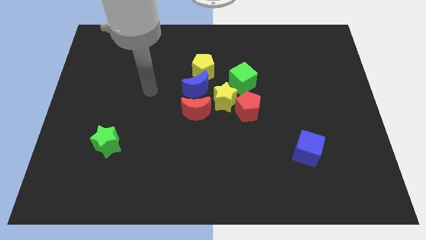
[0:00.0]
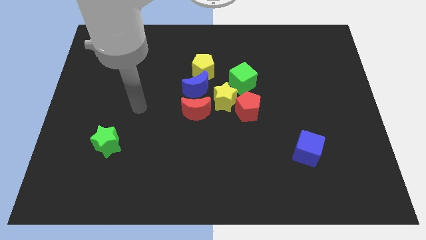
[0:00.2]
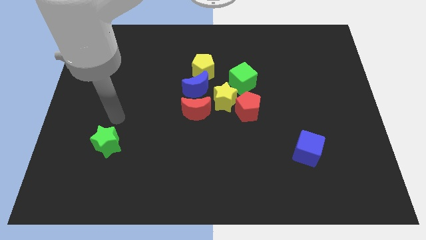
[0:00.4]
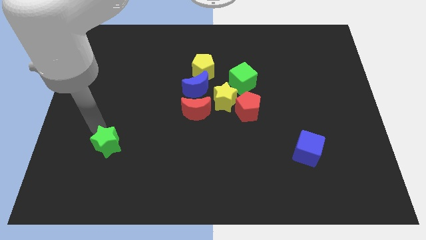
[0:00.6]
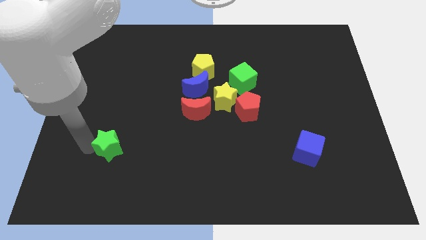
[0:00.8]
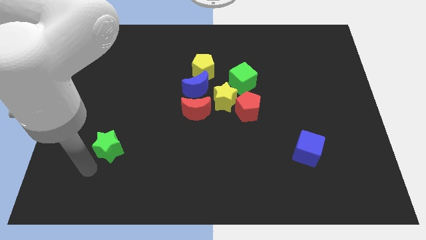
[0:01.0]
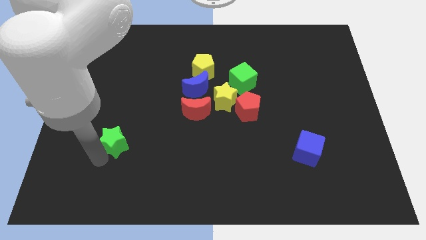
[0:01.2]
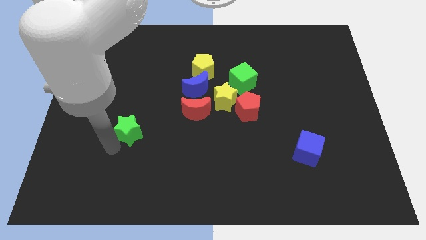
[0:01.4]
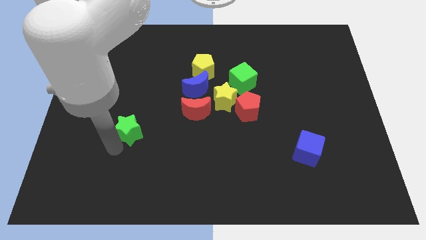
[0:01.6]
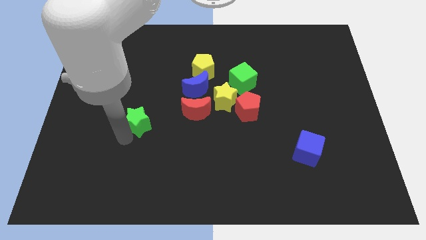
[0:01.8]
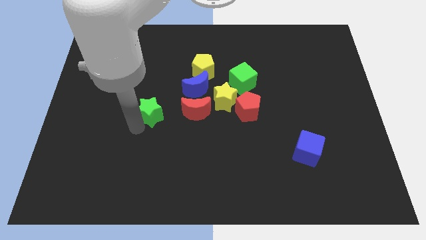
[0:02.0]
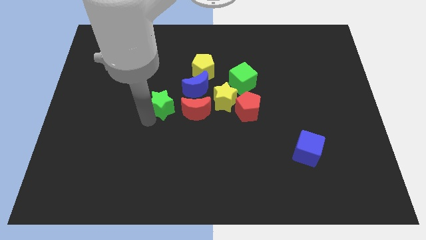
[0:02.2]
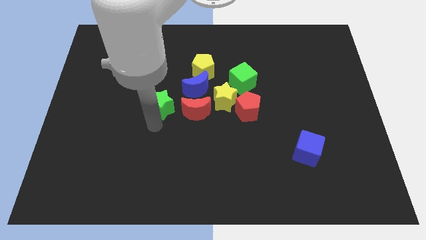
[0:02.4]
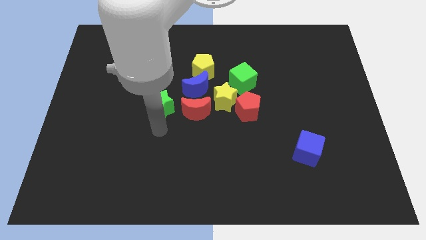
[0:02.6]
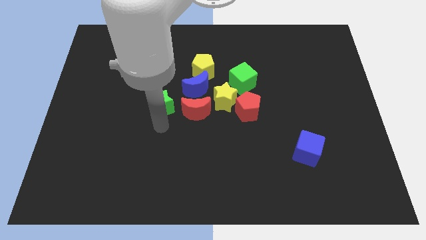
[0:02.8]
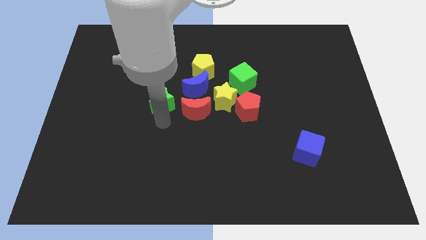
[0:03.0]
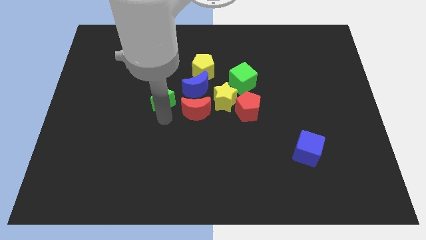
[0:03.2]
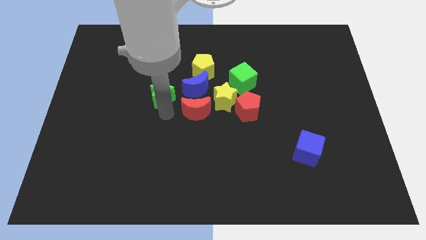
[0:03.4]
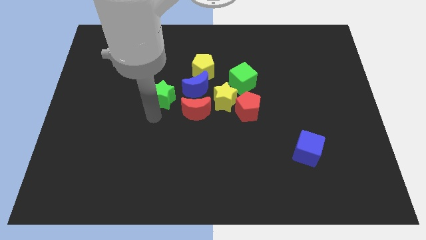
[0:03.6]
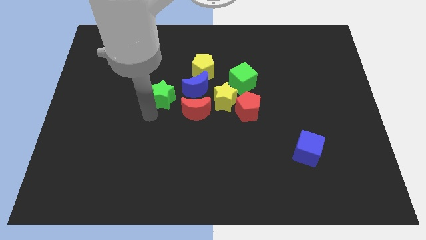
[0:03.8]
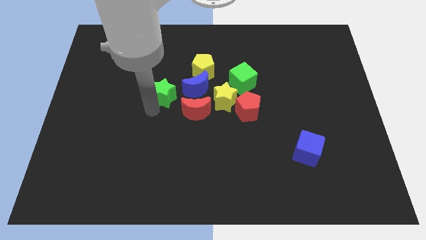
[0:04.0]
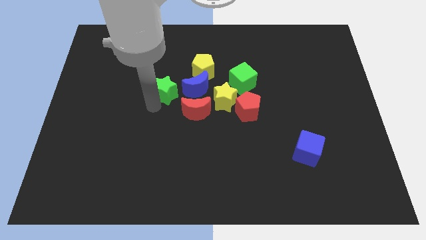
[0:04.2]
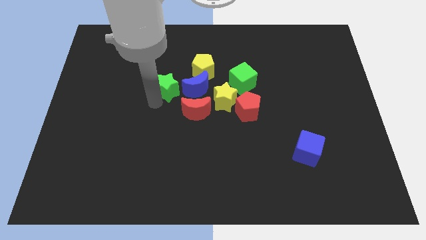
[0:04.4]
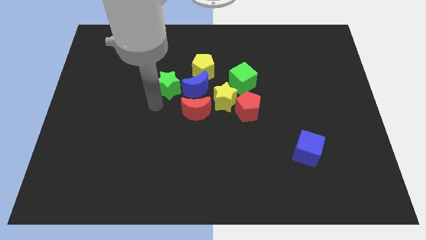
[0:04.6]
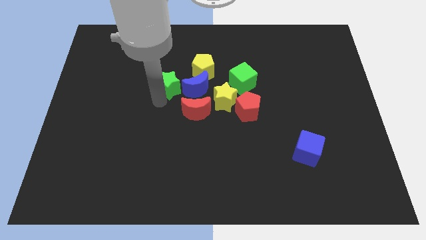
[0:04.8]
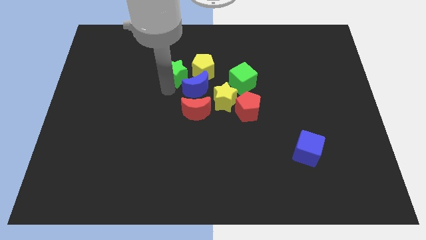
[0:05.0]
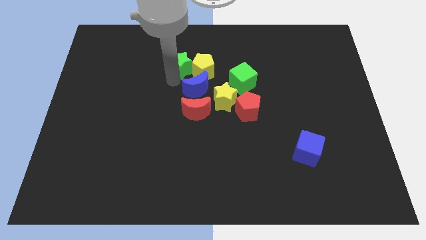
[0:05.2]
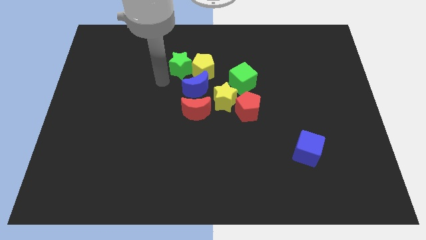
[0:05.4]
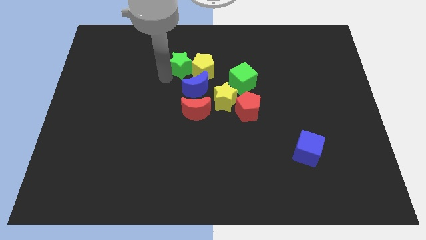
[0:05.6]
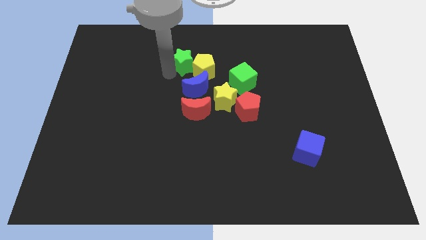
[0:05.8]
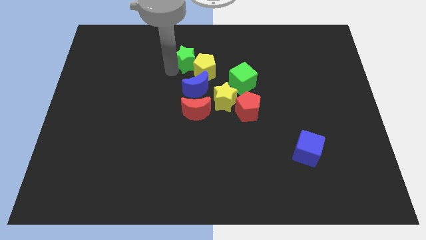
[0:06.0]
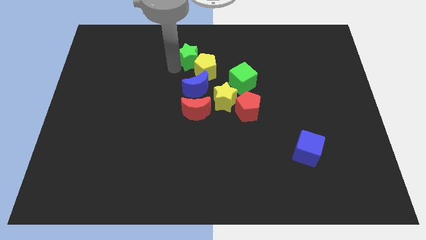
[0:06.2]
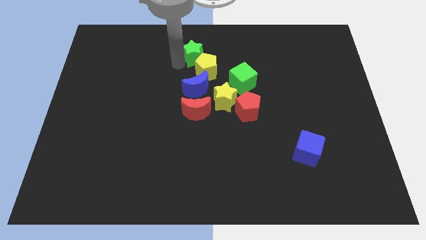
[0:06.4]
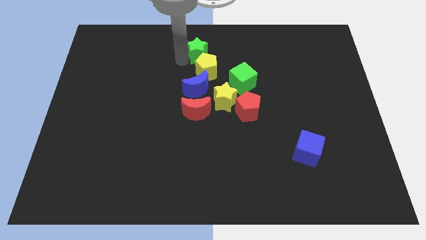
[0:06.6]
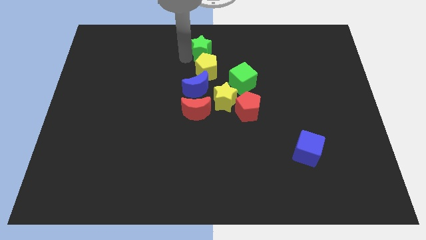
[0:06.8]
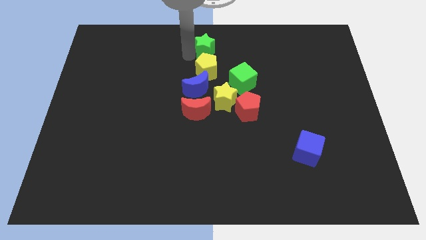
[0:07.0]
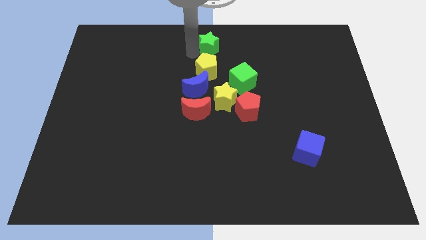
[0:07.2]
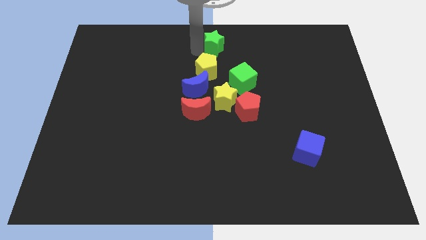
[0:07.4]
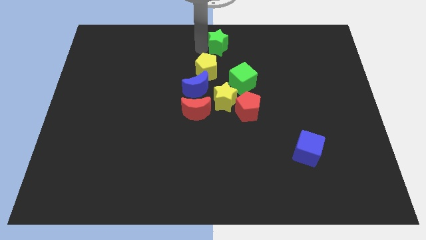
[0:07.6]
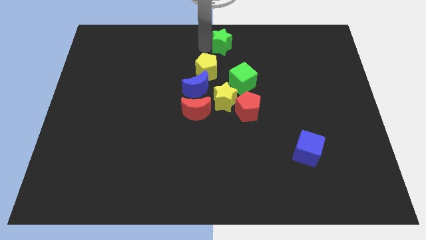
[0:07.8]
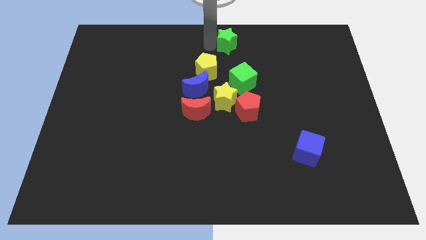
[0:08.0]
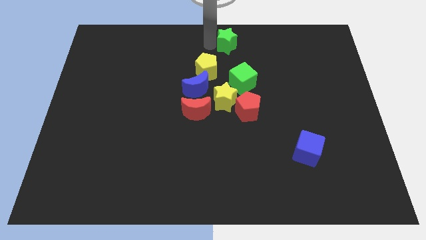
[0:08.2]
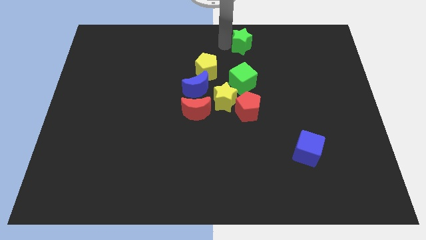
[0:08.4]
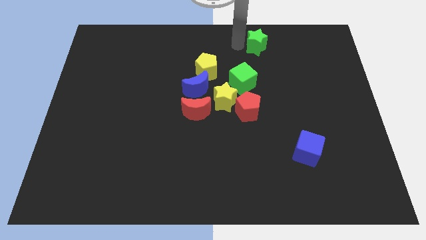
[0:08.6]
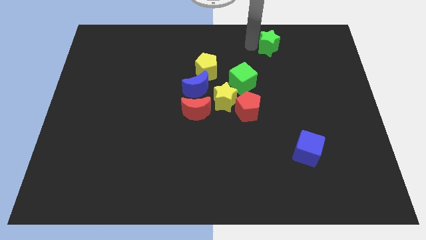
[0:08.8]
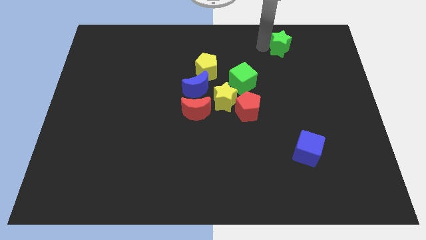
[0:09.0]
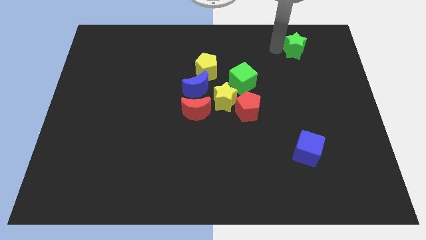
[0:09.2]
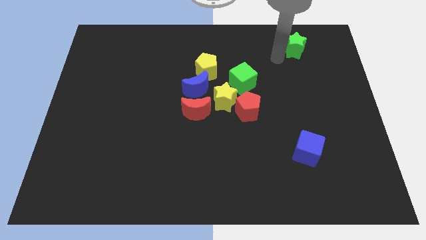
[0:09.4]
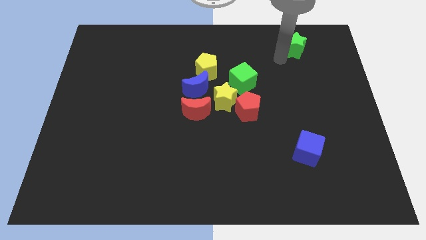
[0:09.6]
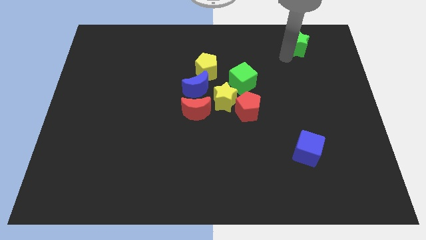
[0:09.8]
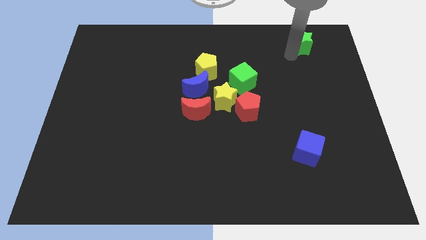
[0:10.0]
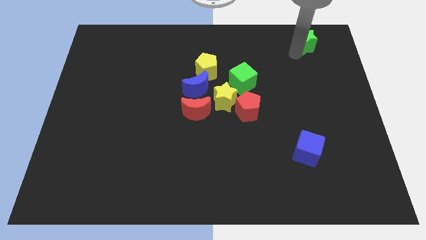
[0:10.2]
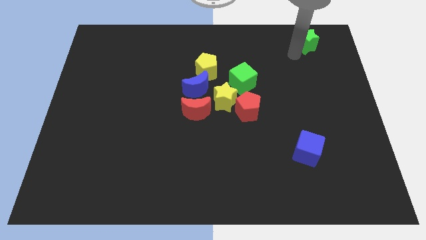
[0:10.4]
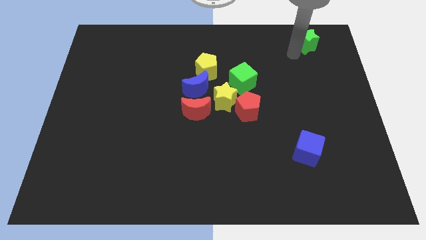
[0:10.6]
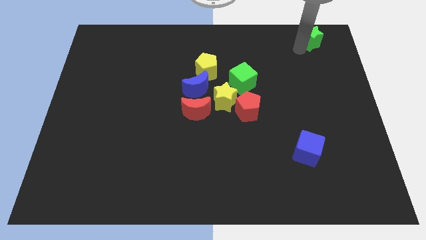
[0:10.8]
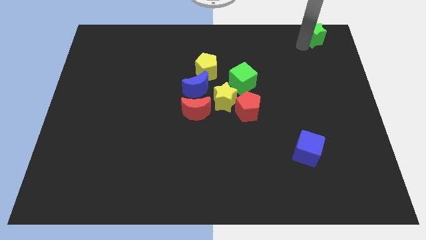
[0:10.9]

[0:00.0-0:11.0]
move the green star to the upper right corner

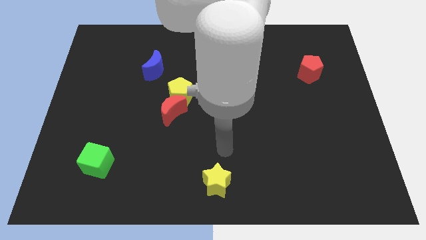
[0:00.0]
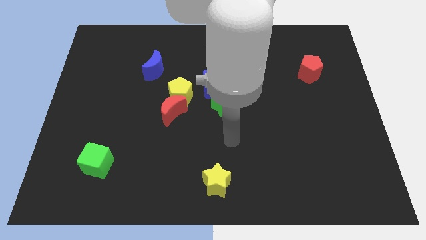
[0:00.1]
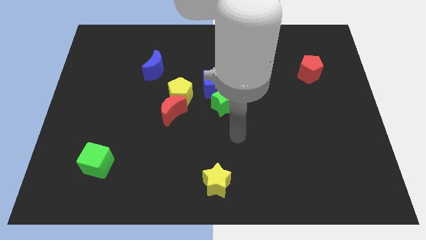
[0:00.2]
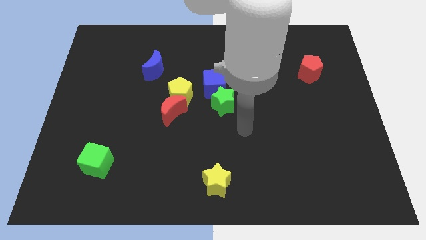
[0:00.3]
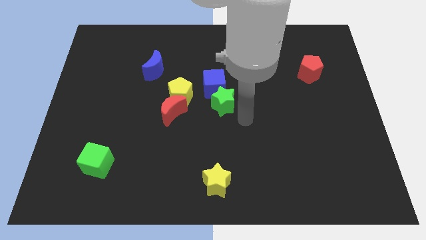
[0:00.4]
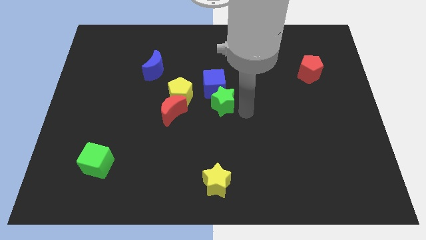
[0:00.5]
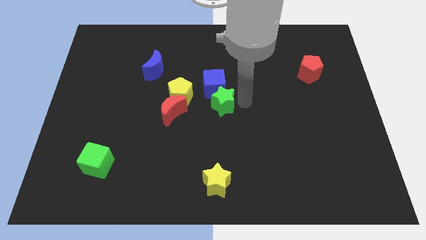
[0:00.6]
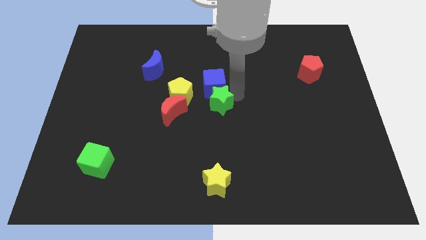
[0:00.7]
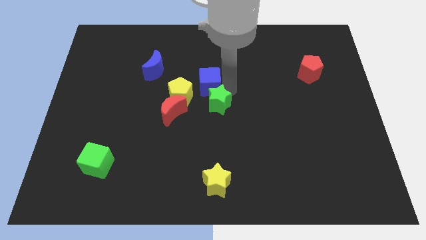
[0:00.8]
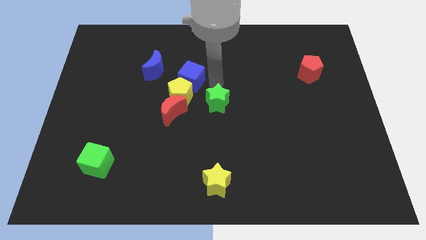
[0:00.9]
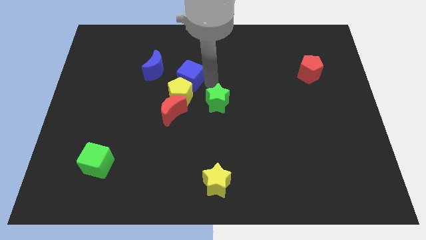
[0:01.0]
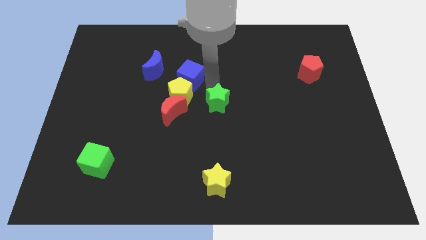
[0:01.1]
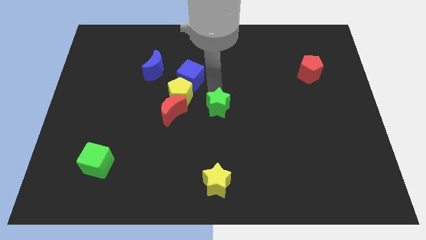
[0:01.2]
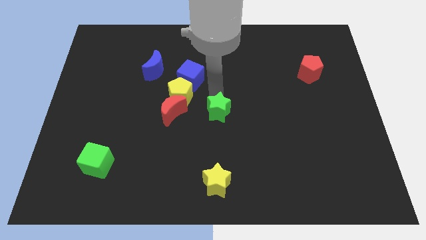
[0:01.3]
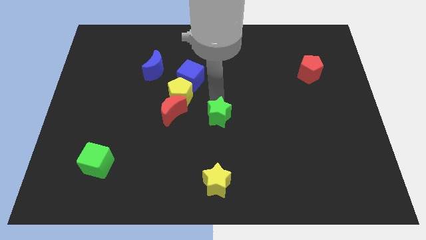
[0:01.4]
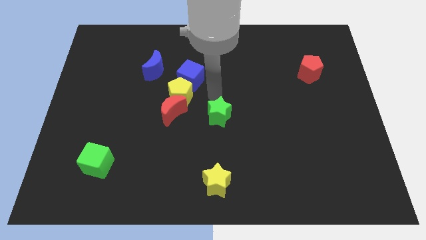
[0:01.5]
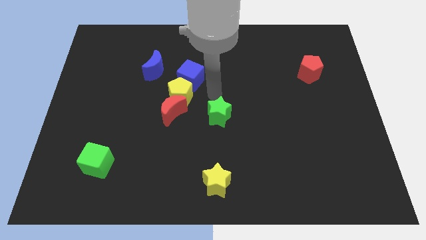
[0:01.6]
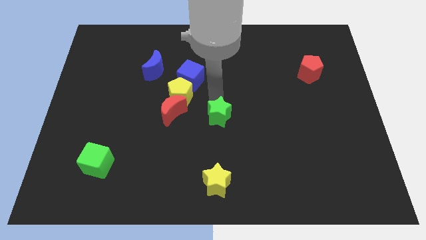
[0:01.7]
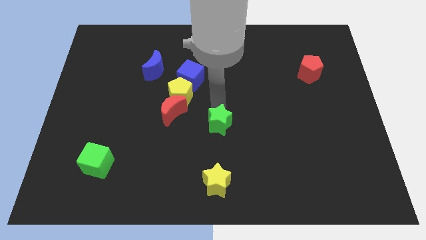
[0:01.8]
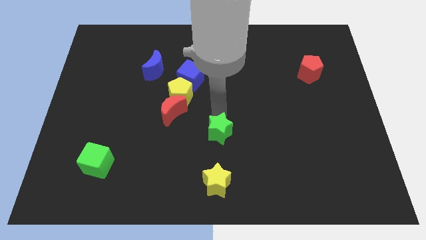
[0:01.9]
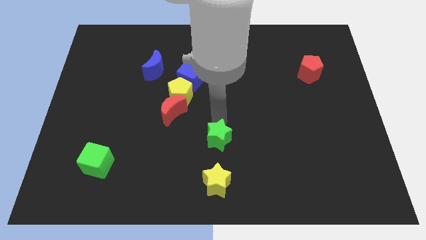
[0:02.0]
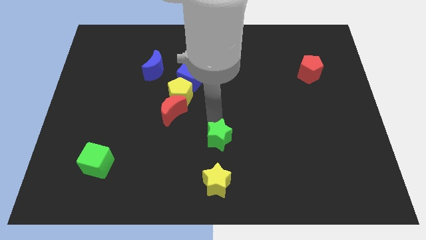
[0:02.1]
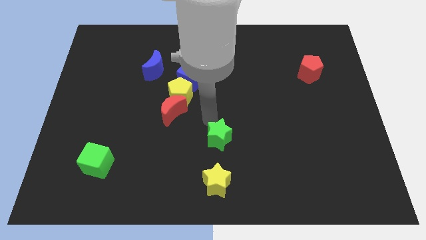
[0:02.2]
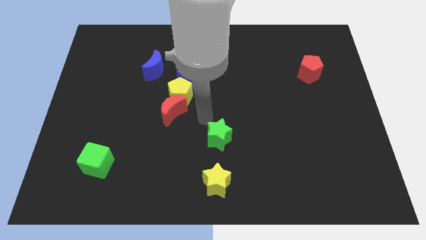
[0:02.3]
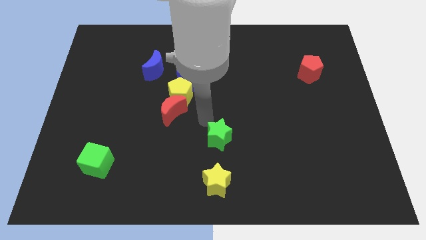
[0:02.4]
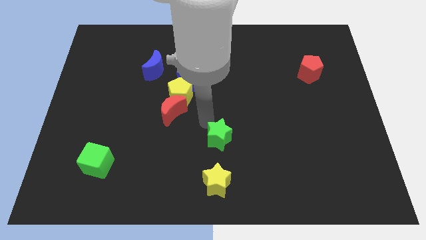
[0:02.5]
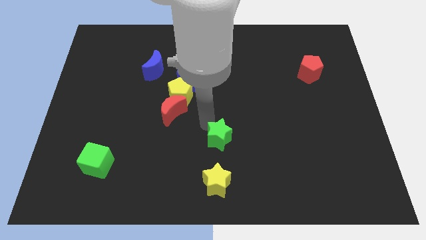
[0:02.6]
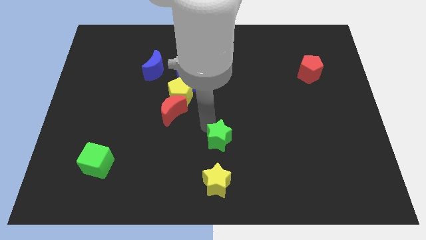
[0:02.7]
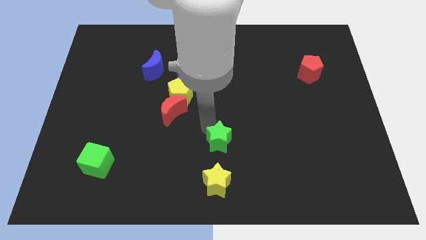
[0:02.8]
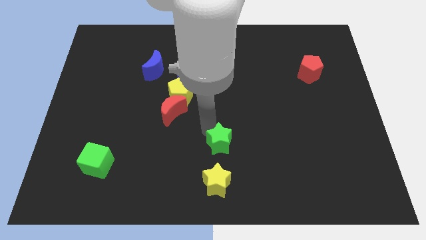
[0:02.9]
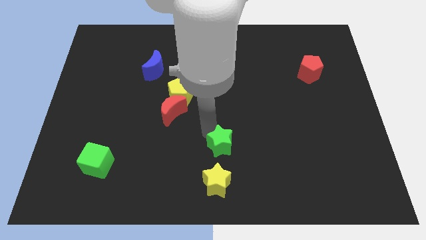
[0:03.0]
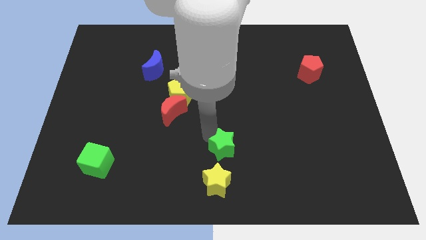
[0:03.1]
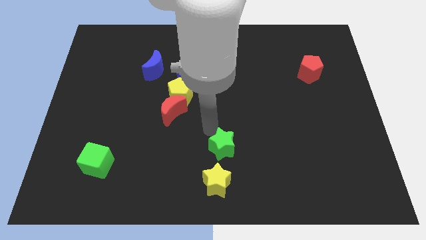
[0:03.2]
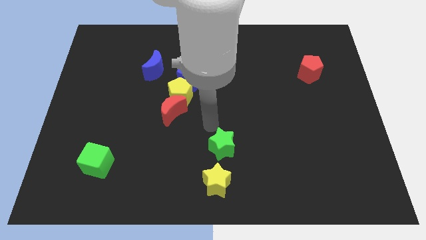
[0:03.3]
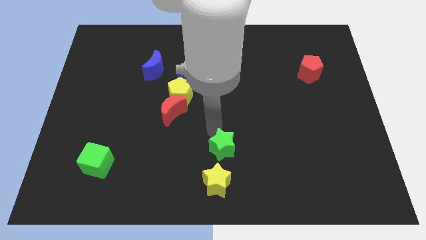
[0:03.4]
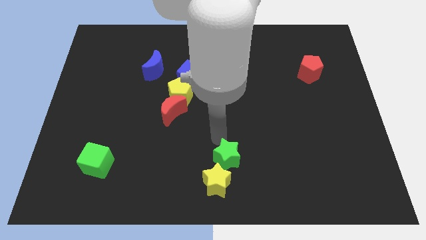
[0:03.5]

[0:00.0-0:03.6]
slide the green star to the bottom
